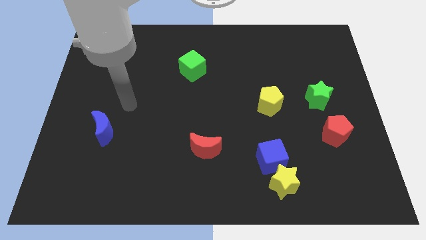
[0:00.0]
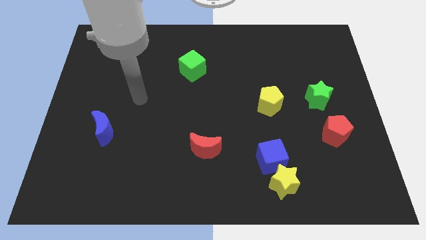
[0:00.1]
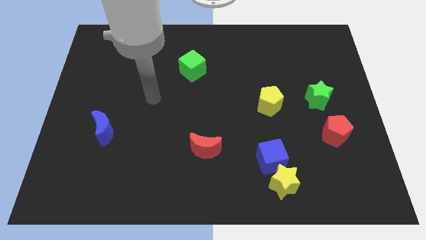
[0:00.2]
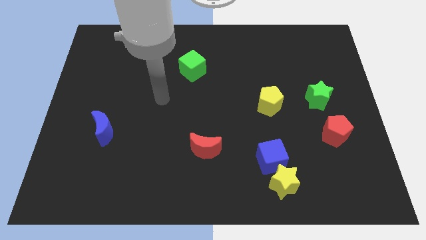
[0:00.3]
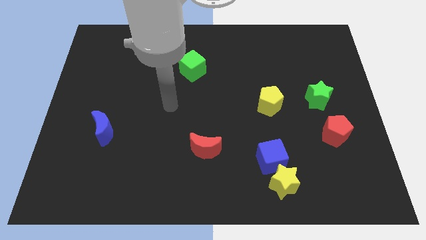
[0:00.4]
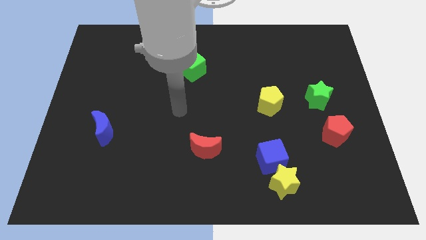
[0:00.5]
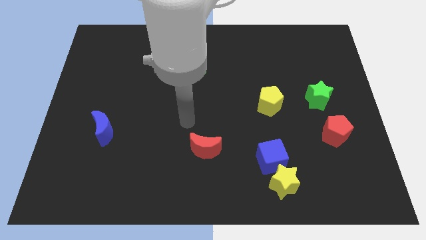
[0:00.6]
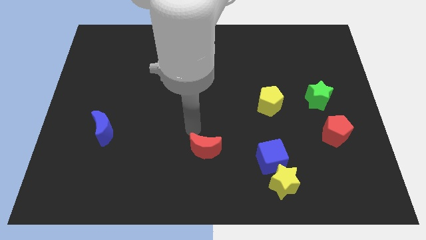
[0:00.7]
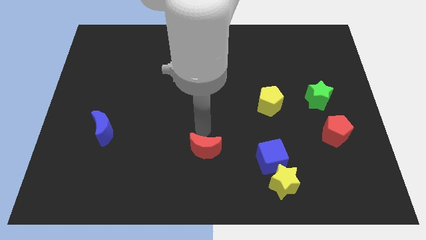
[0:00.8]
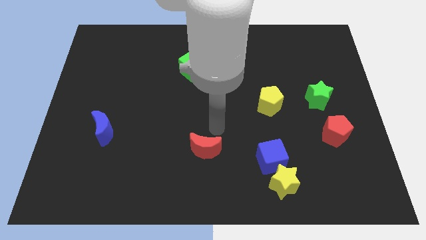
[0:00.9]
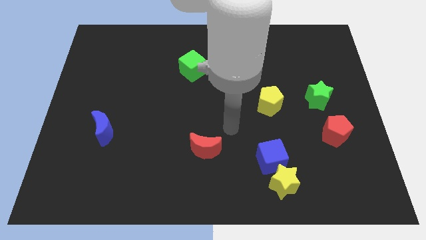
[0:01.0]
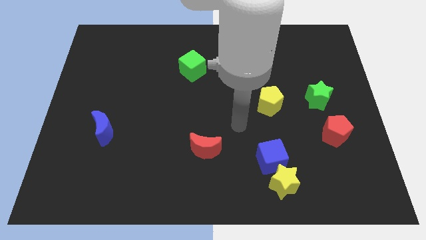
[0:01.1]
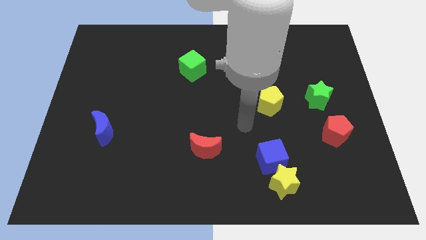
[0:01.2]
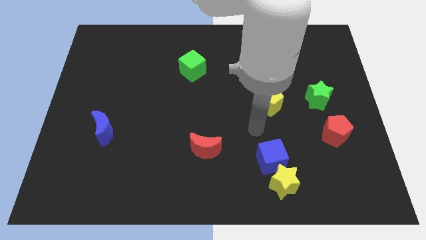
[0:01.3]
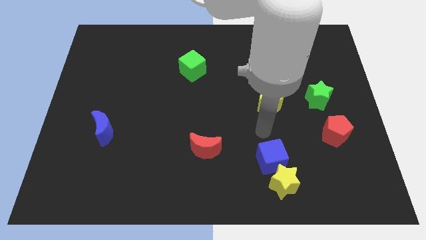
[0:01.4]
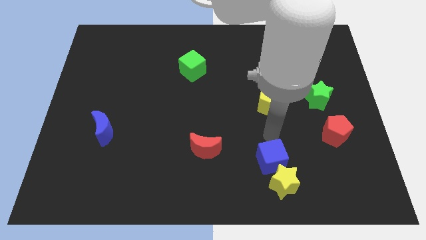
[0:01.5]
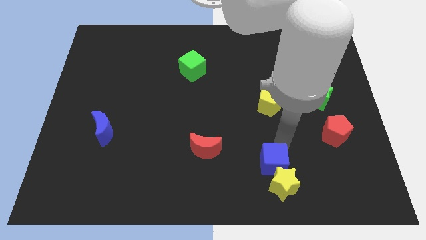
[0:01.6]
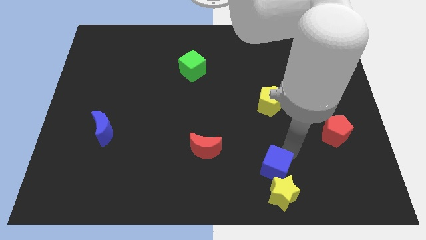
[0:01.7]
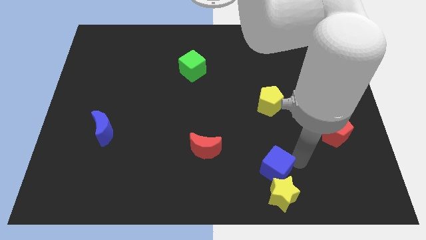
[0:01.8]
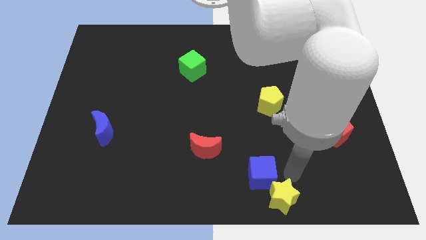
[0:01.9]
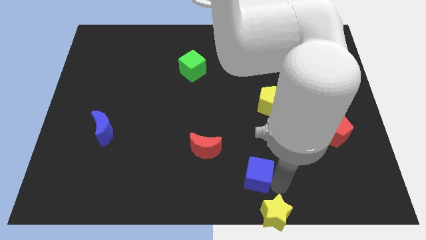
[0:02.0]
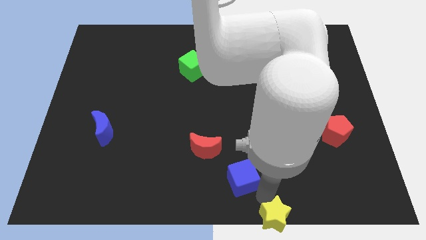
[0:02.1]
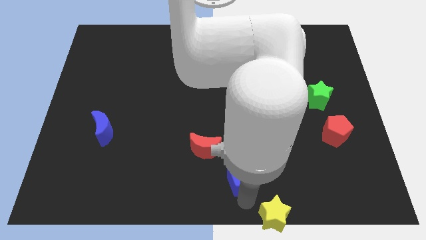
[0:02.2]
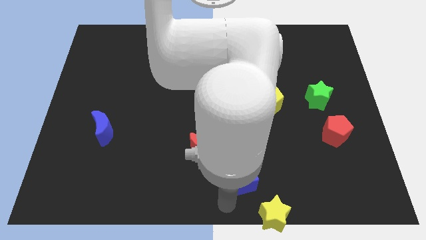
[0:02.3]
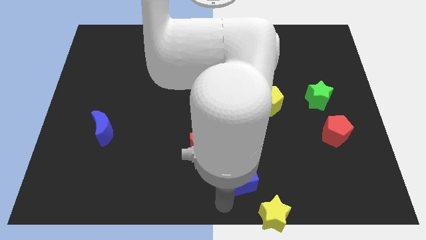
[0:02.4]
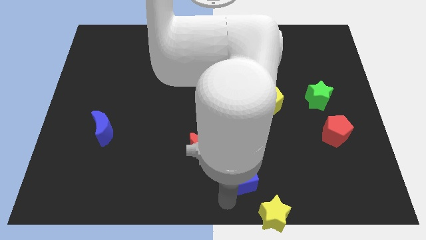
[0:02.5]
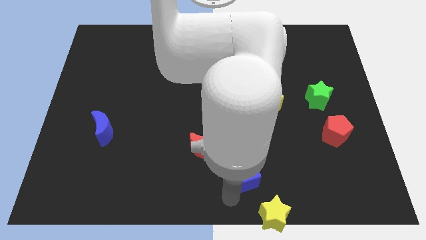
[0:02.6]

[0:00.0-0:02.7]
move the blue cube away from the yellow star

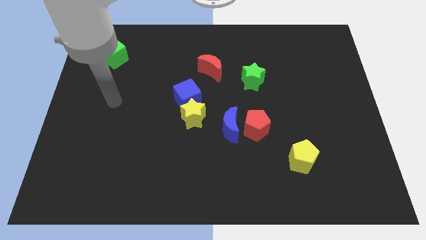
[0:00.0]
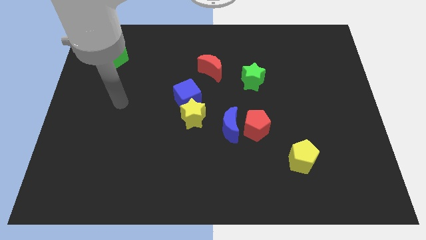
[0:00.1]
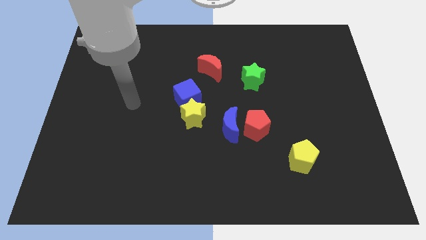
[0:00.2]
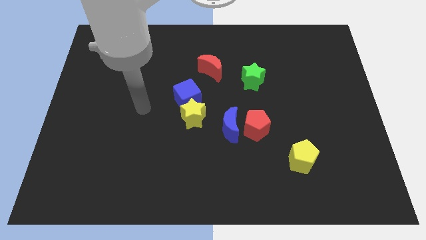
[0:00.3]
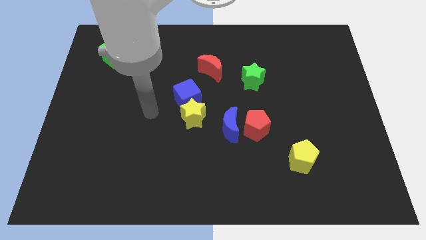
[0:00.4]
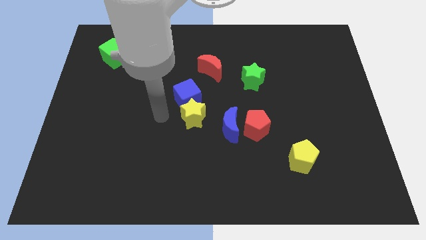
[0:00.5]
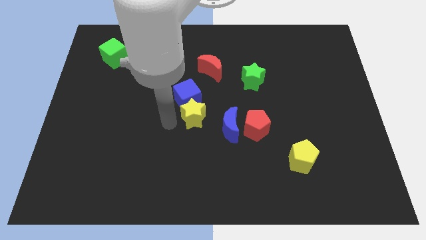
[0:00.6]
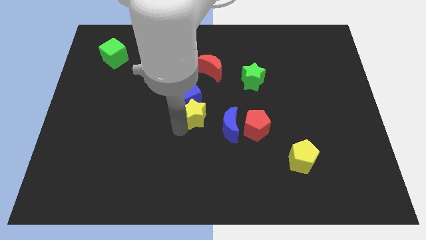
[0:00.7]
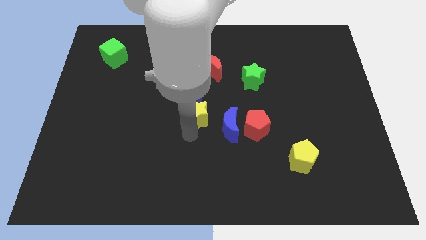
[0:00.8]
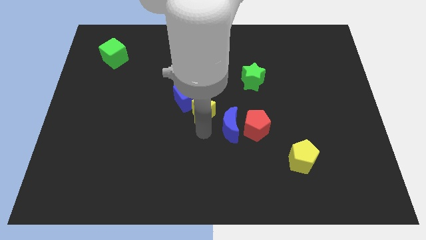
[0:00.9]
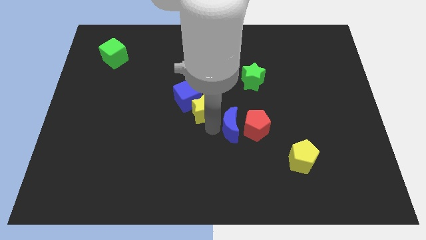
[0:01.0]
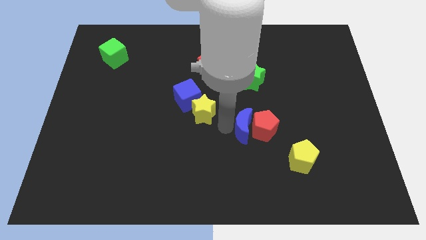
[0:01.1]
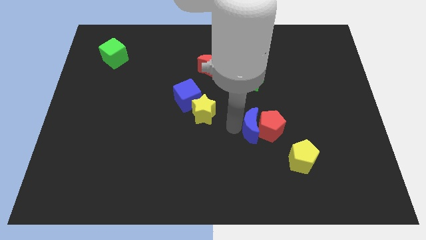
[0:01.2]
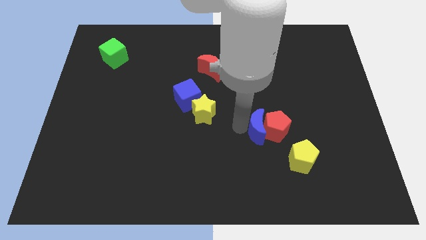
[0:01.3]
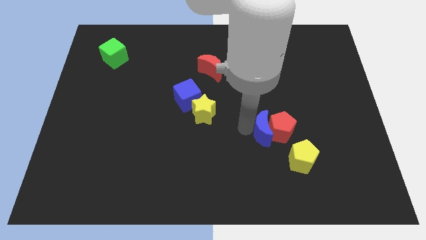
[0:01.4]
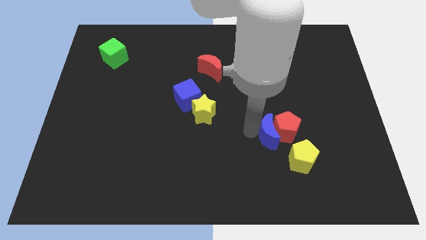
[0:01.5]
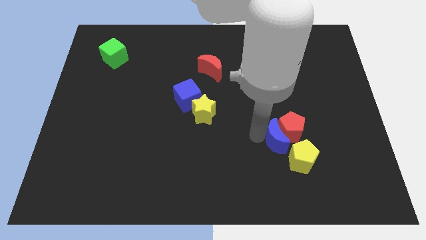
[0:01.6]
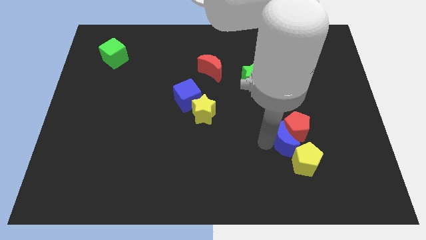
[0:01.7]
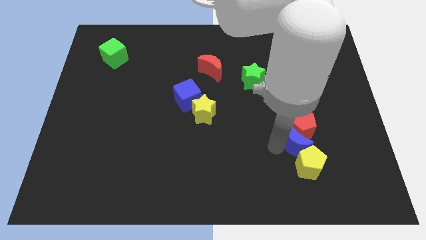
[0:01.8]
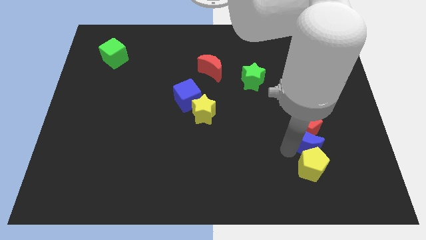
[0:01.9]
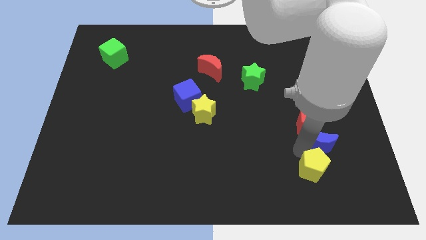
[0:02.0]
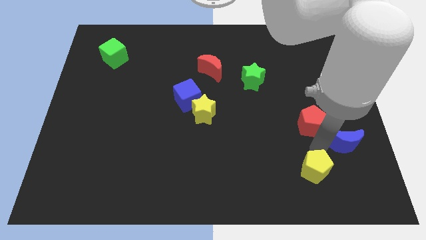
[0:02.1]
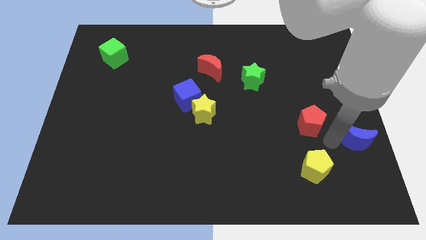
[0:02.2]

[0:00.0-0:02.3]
move the red pentagon away from the blue moon

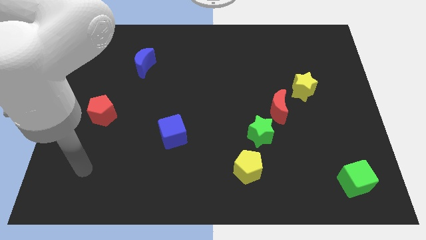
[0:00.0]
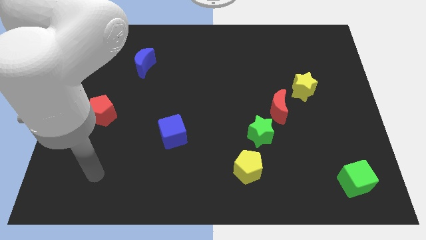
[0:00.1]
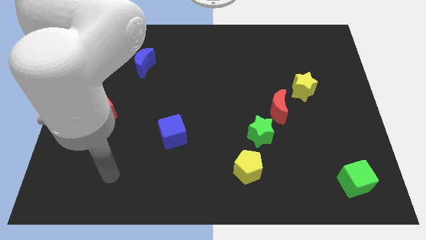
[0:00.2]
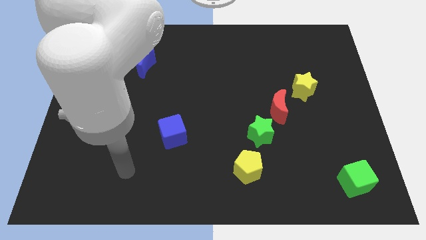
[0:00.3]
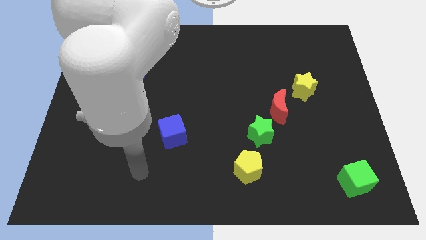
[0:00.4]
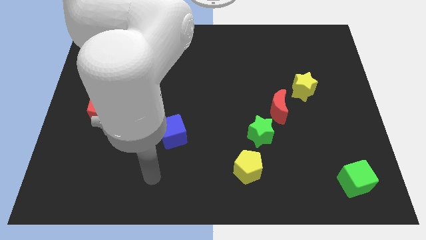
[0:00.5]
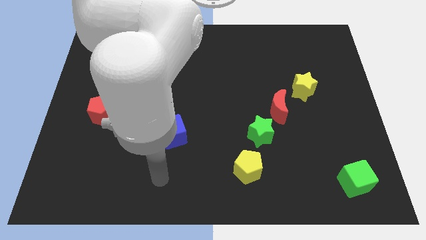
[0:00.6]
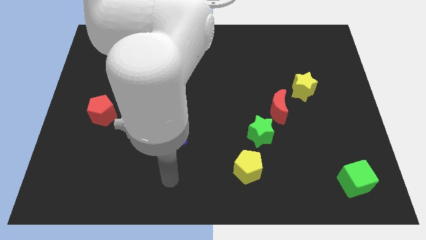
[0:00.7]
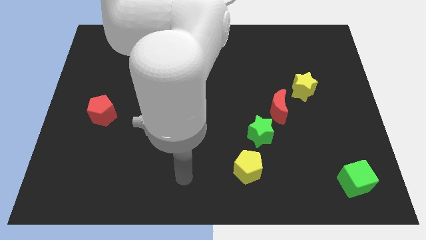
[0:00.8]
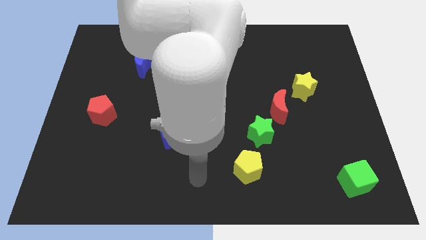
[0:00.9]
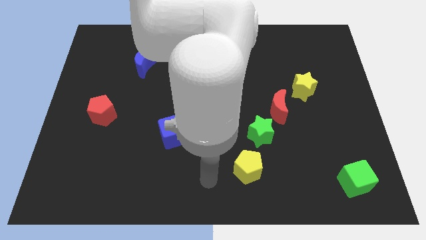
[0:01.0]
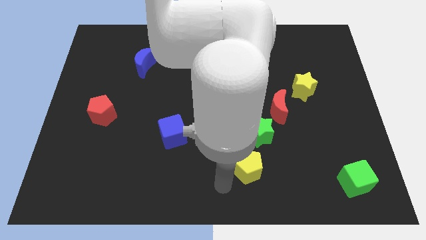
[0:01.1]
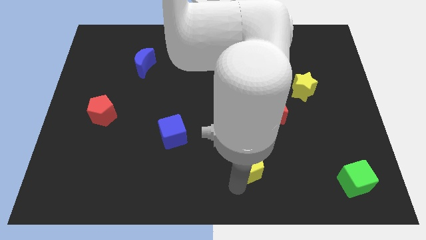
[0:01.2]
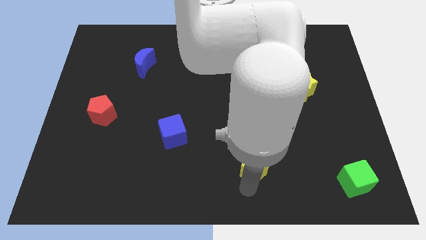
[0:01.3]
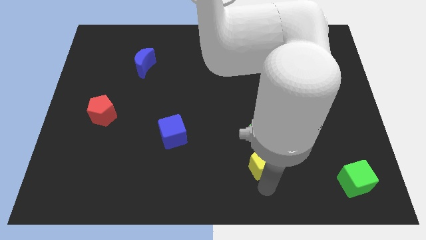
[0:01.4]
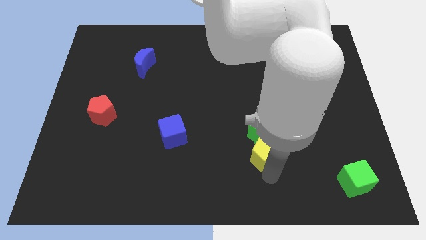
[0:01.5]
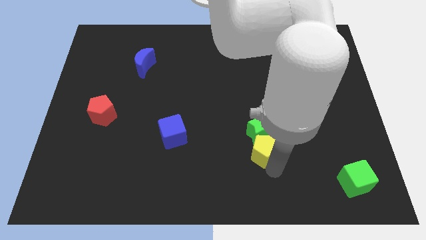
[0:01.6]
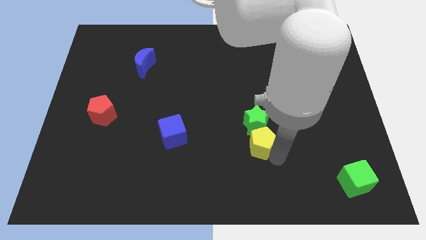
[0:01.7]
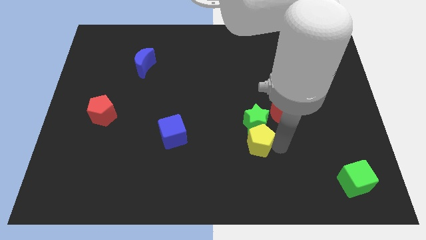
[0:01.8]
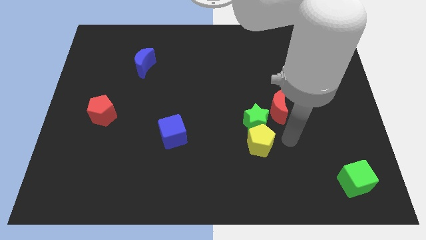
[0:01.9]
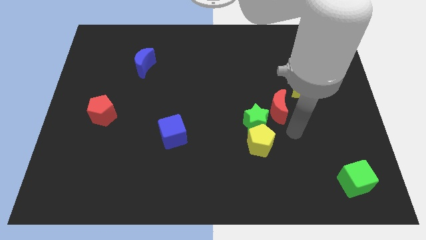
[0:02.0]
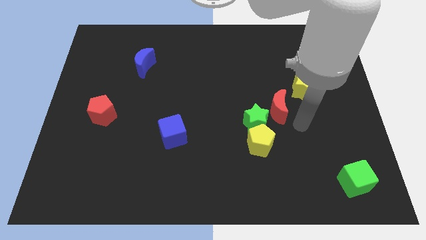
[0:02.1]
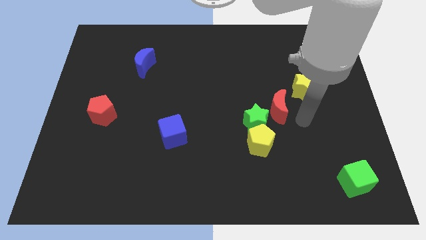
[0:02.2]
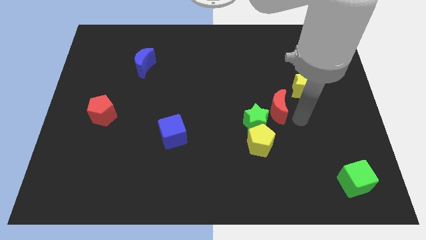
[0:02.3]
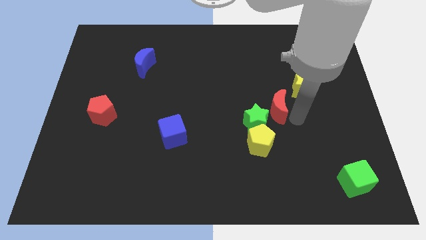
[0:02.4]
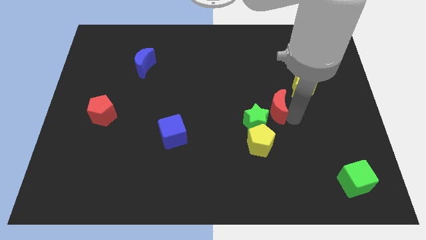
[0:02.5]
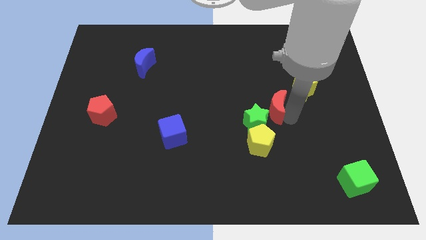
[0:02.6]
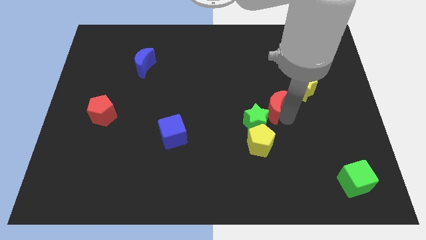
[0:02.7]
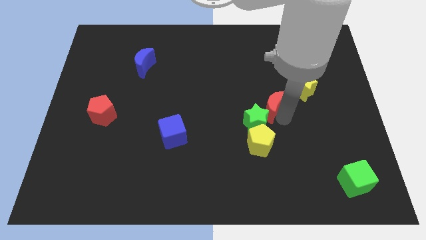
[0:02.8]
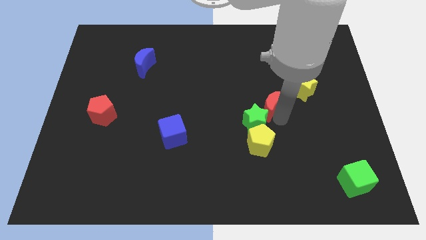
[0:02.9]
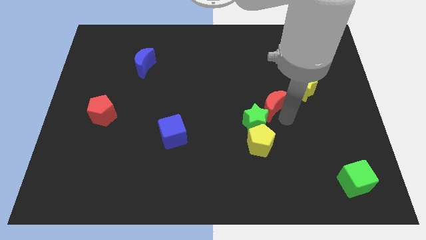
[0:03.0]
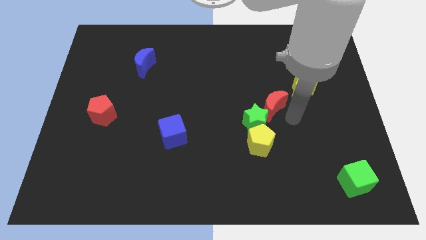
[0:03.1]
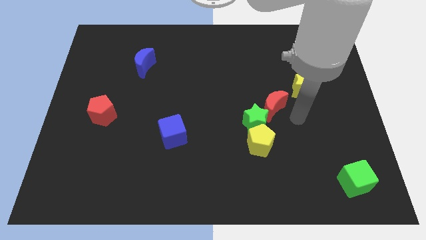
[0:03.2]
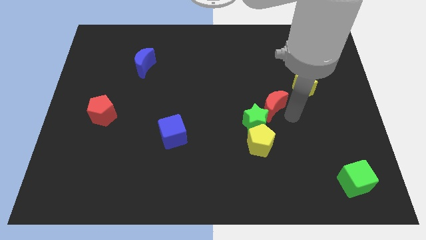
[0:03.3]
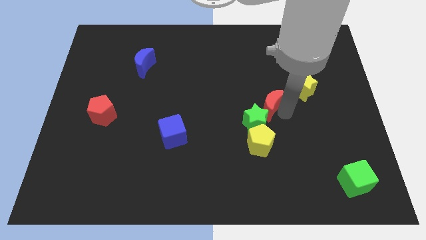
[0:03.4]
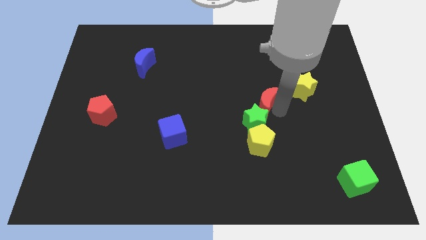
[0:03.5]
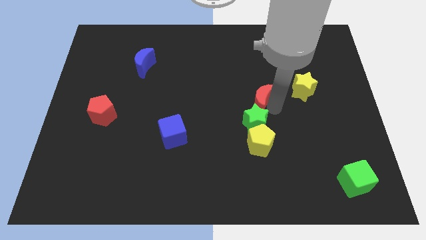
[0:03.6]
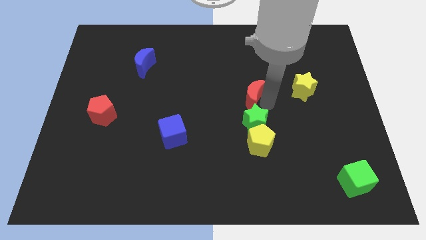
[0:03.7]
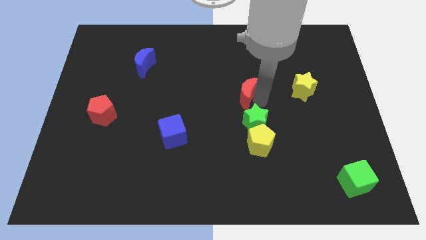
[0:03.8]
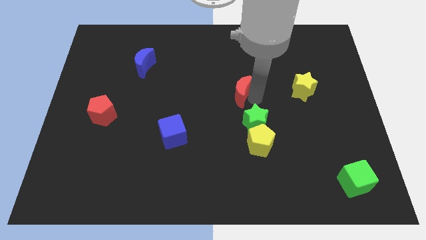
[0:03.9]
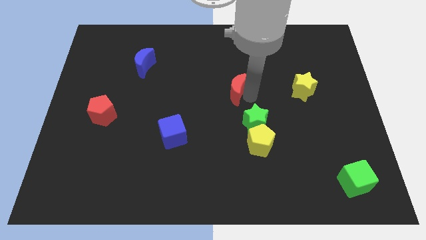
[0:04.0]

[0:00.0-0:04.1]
pull the red moon apart from the green star and yellow star

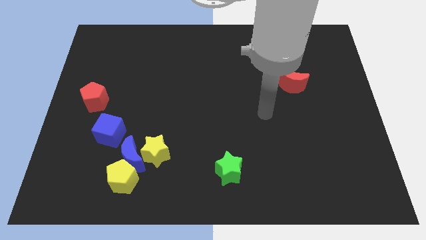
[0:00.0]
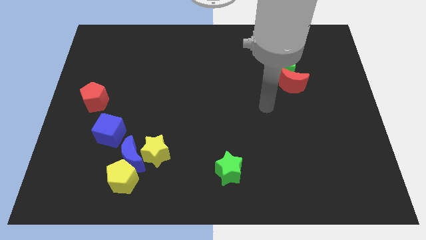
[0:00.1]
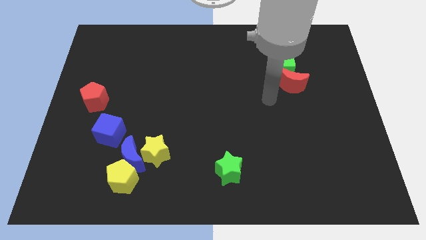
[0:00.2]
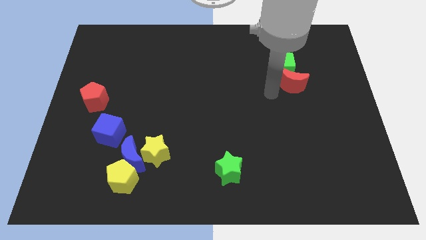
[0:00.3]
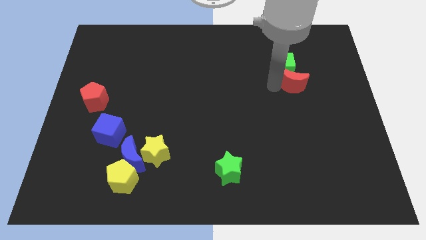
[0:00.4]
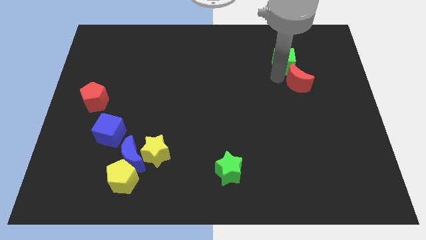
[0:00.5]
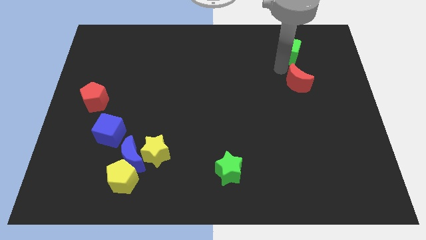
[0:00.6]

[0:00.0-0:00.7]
separate the red moon from the green cube
